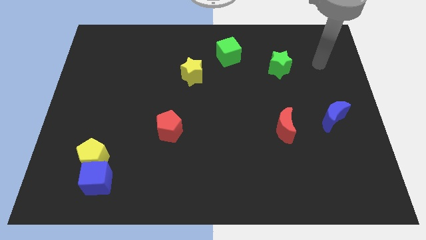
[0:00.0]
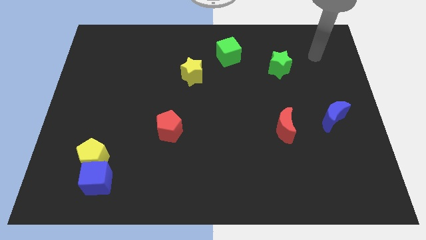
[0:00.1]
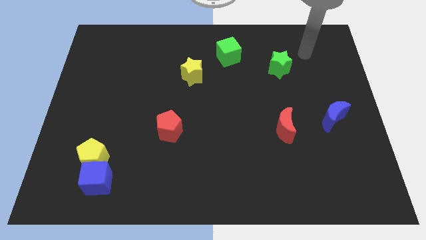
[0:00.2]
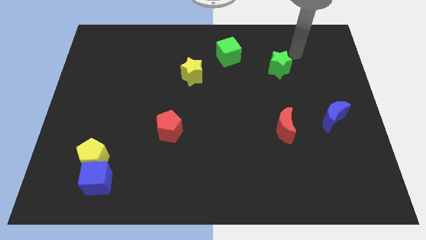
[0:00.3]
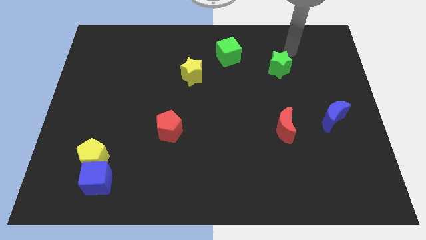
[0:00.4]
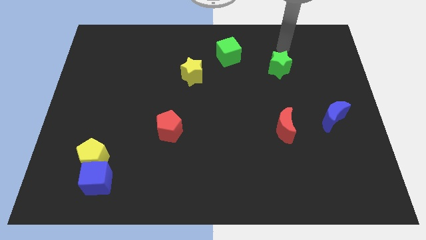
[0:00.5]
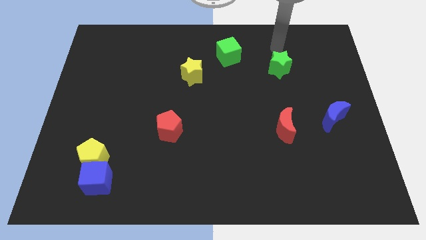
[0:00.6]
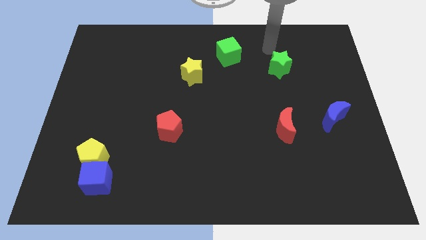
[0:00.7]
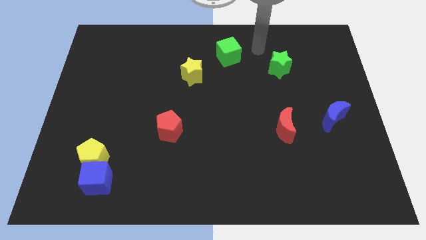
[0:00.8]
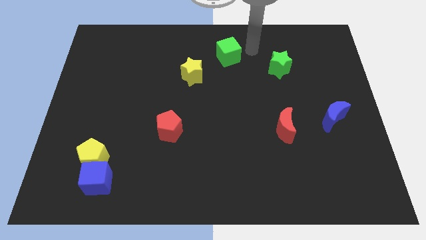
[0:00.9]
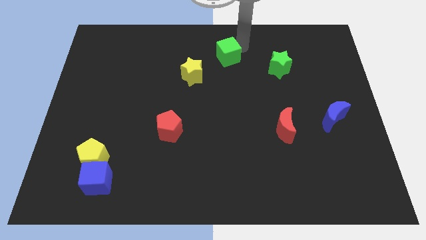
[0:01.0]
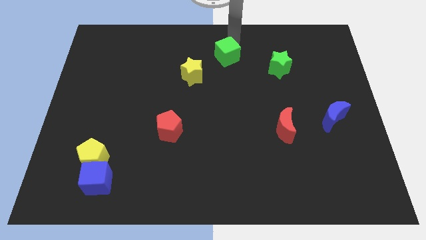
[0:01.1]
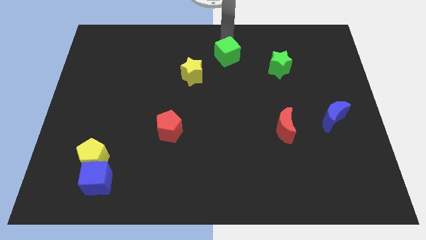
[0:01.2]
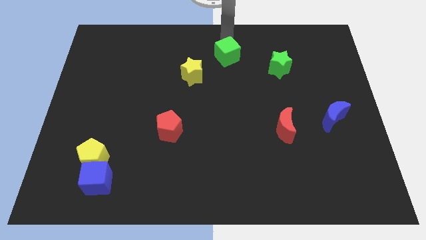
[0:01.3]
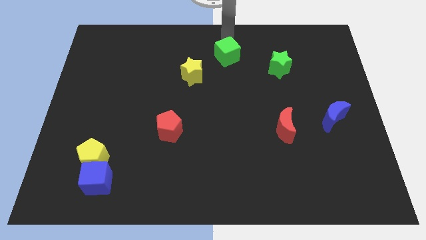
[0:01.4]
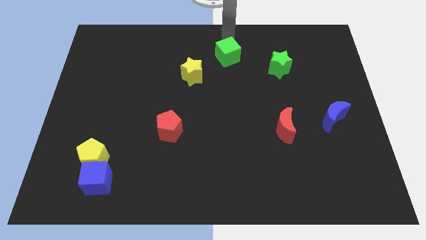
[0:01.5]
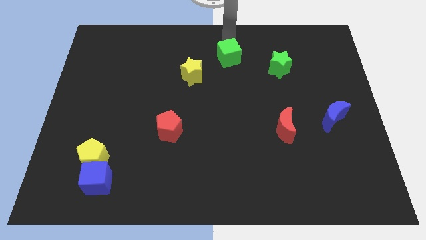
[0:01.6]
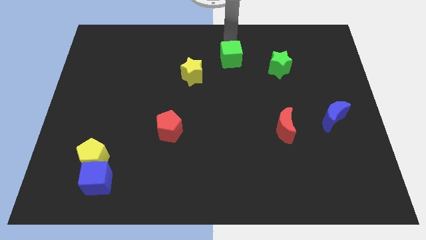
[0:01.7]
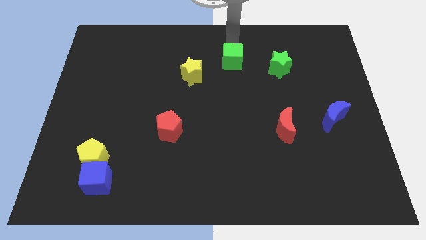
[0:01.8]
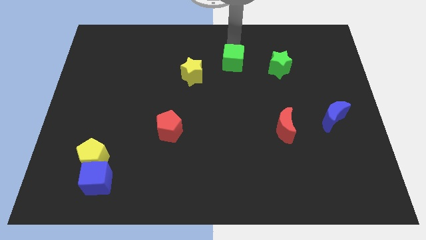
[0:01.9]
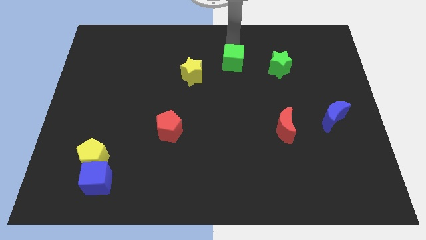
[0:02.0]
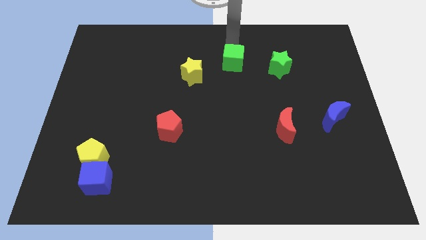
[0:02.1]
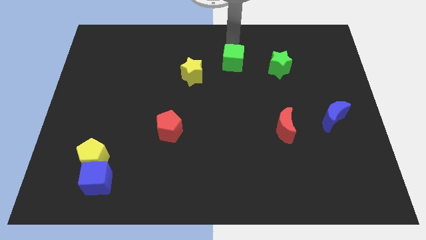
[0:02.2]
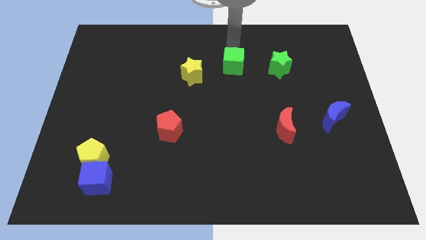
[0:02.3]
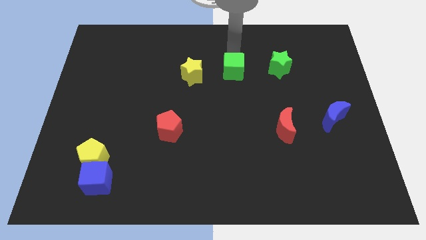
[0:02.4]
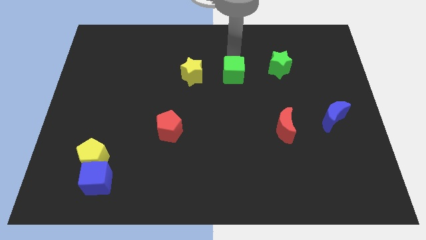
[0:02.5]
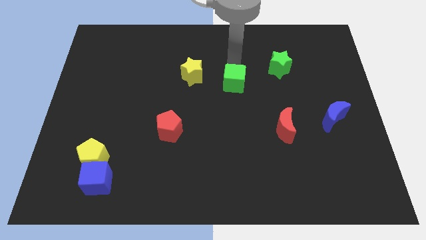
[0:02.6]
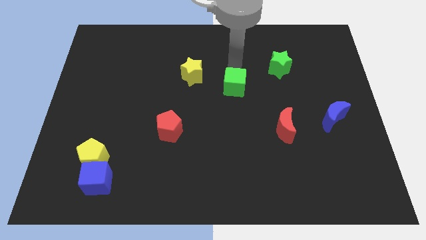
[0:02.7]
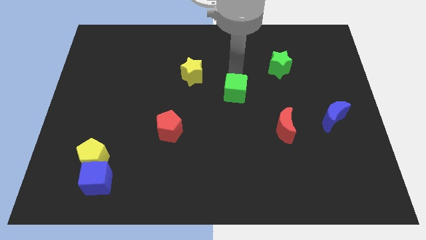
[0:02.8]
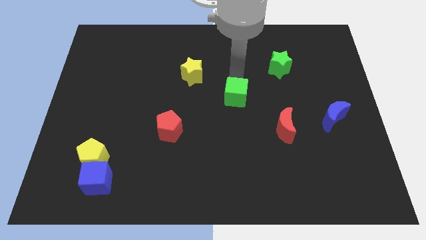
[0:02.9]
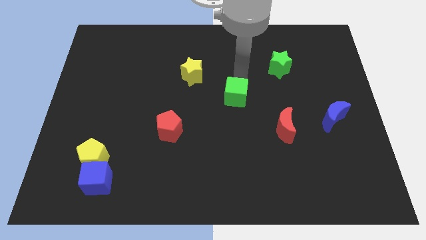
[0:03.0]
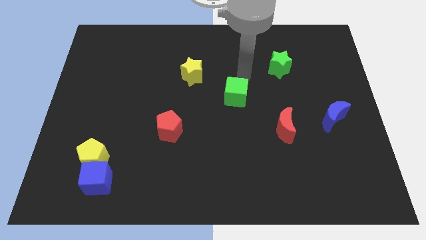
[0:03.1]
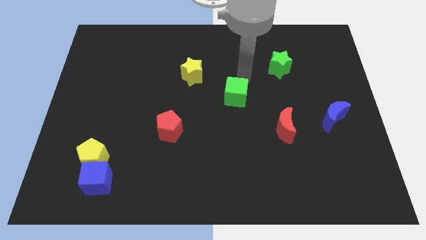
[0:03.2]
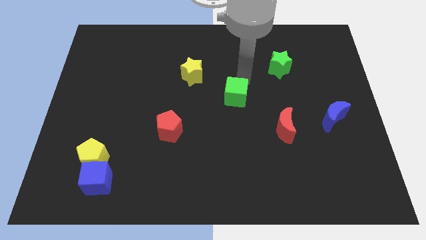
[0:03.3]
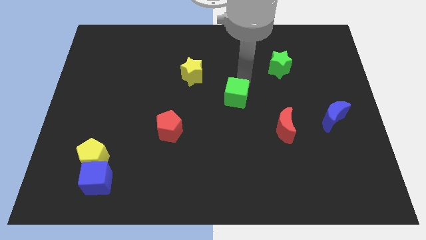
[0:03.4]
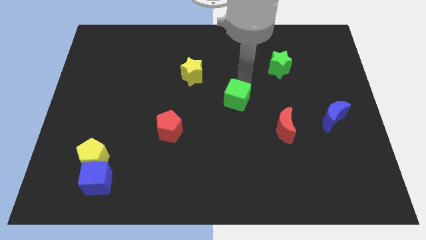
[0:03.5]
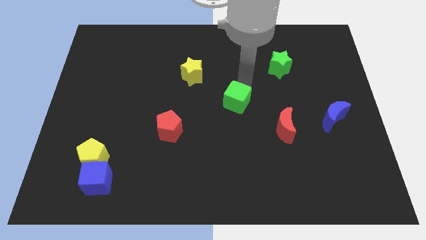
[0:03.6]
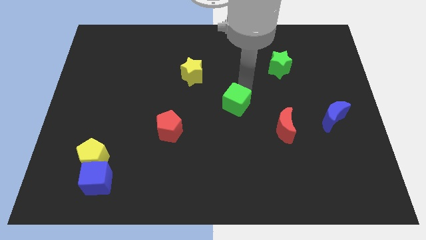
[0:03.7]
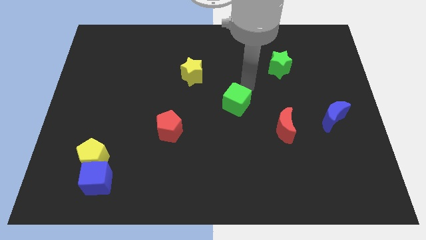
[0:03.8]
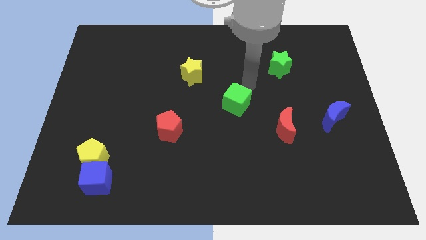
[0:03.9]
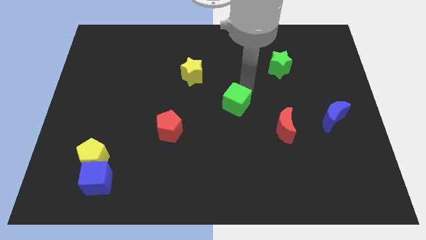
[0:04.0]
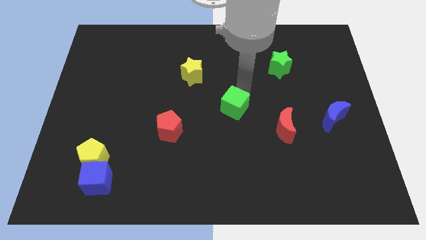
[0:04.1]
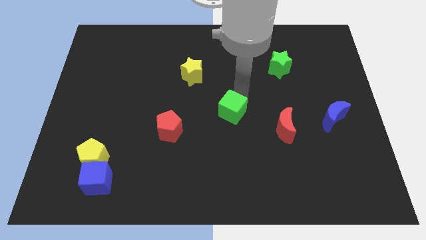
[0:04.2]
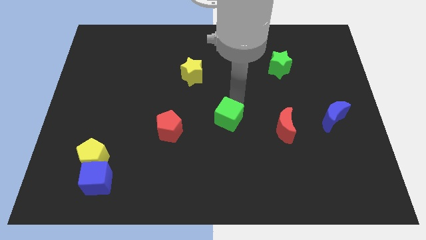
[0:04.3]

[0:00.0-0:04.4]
move the green cube downwards

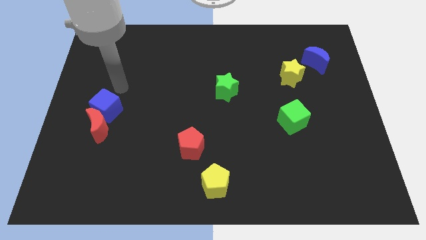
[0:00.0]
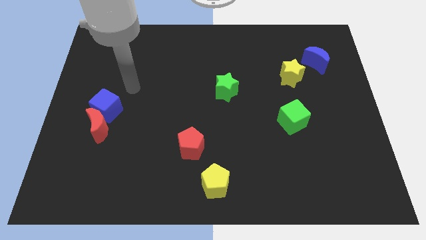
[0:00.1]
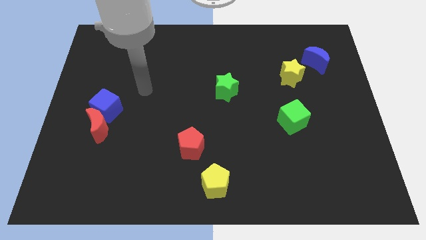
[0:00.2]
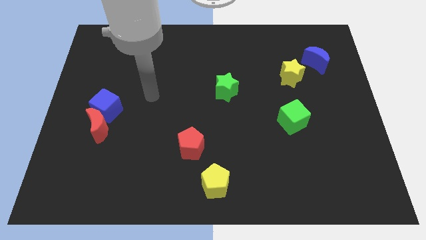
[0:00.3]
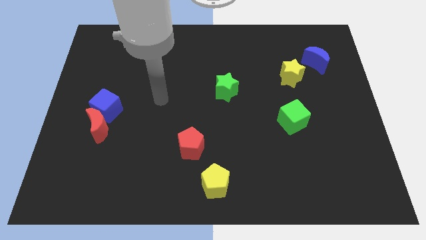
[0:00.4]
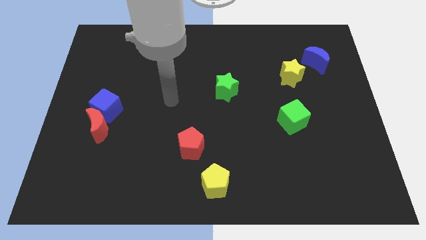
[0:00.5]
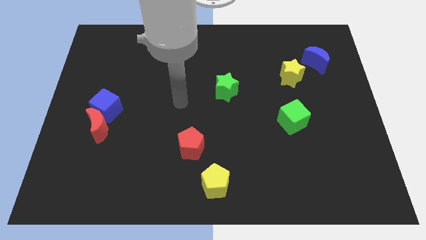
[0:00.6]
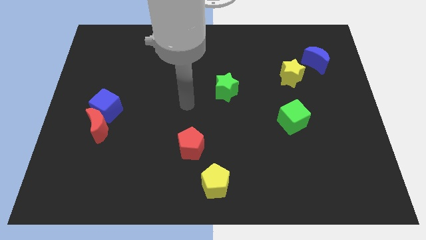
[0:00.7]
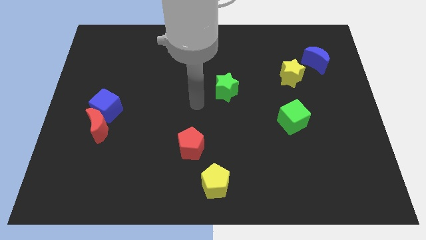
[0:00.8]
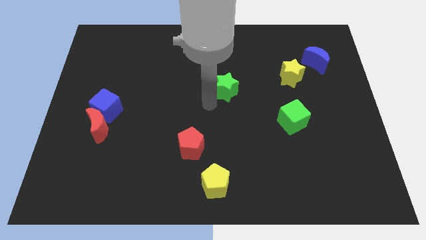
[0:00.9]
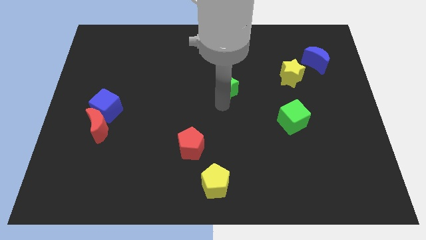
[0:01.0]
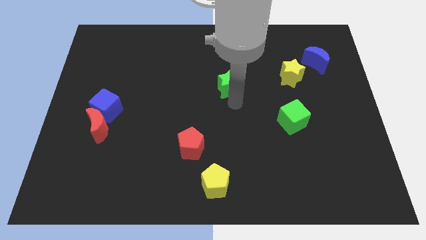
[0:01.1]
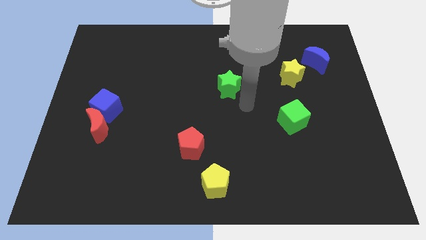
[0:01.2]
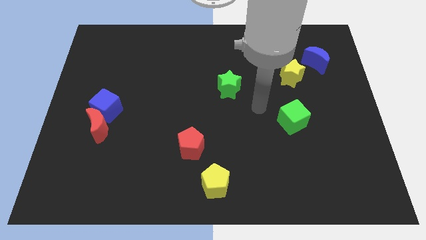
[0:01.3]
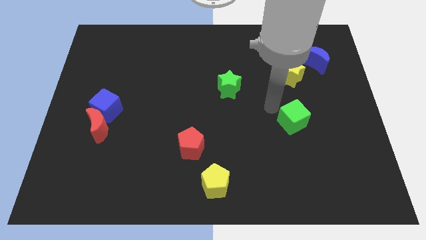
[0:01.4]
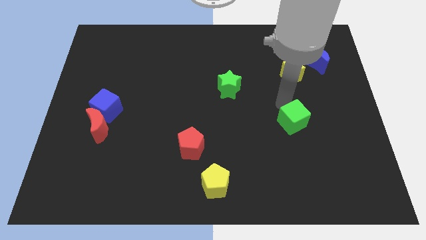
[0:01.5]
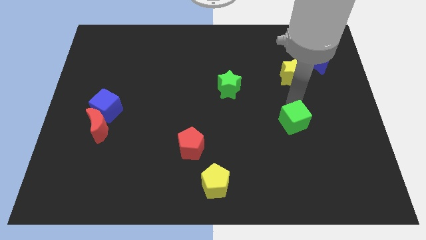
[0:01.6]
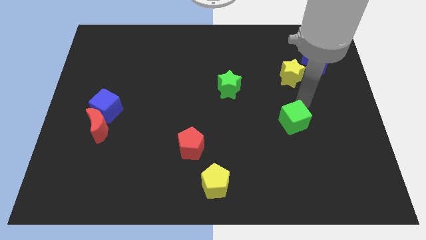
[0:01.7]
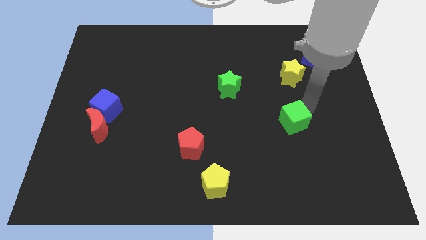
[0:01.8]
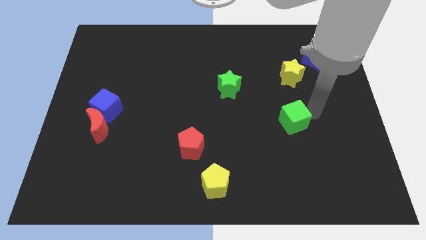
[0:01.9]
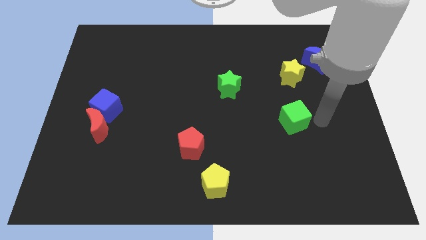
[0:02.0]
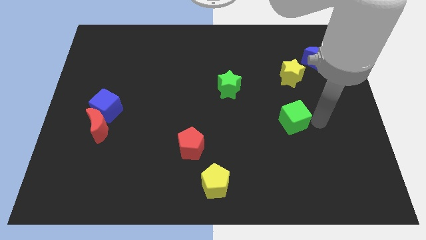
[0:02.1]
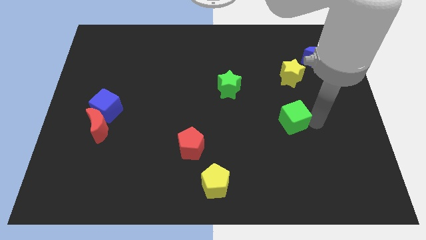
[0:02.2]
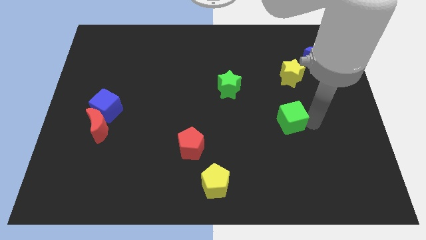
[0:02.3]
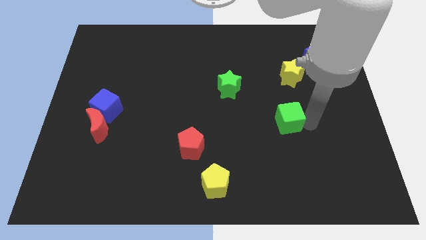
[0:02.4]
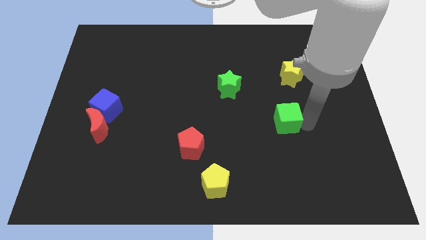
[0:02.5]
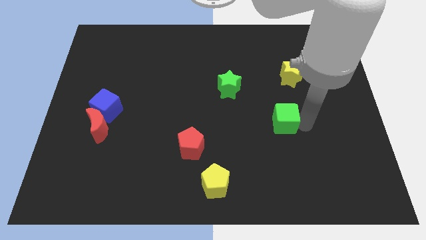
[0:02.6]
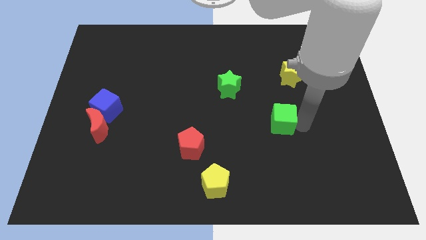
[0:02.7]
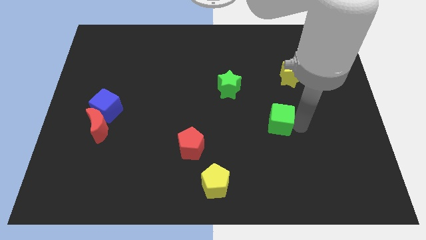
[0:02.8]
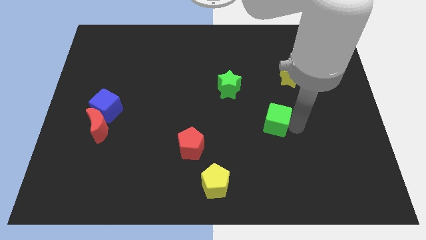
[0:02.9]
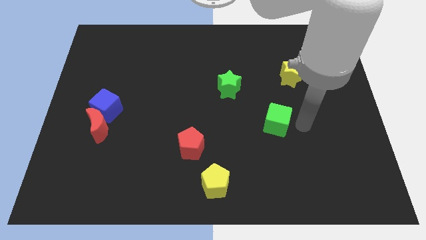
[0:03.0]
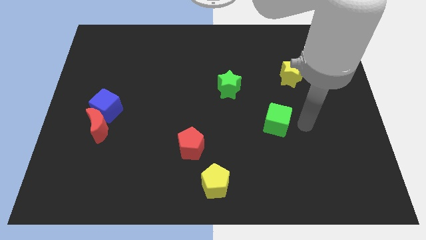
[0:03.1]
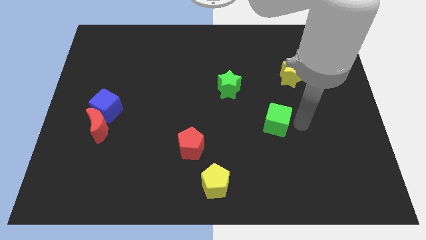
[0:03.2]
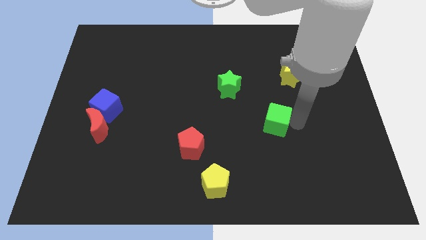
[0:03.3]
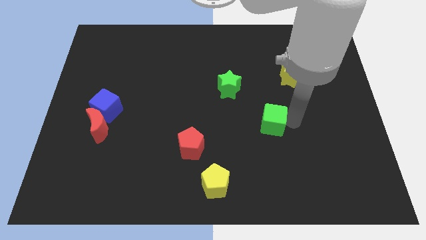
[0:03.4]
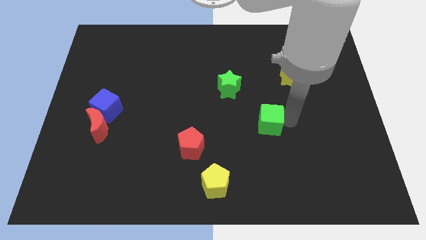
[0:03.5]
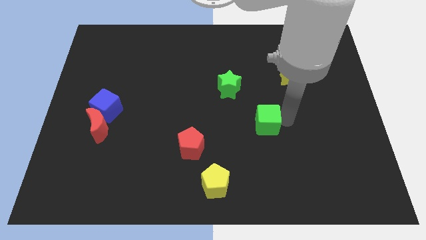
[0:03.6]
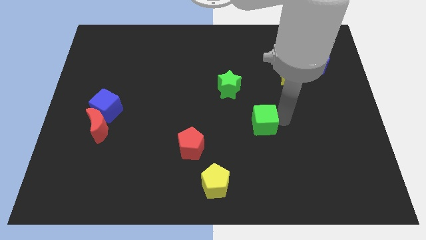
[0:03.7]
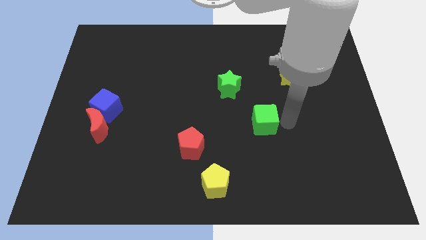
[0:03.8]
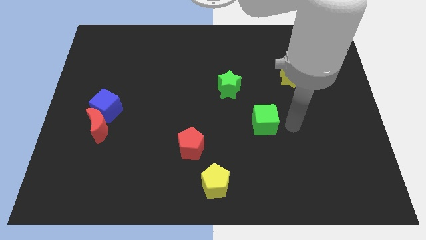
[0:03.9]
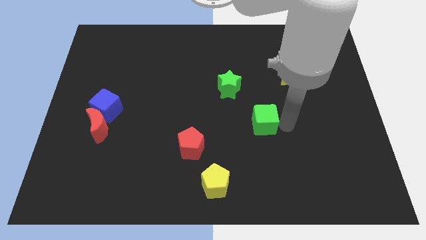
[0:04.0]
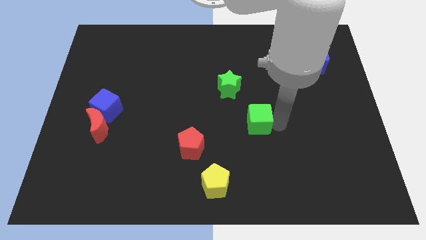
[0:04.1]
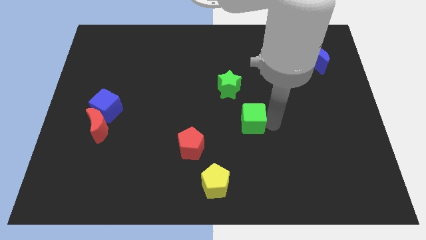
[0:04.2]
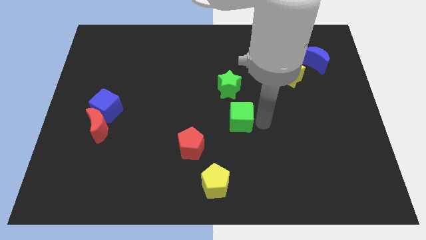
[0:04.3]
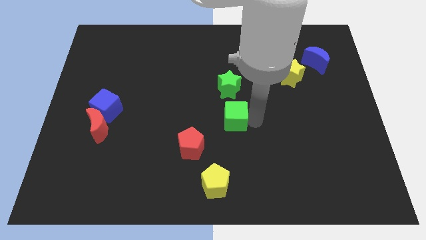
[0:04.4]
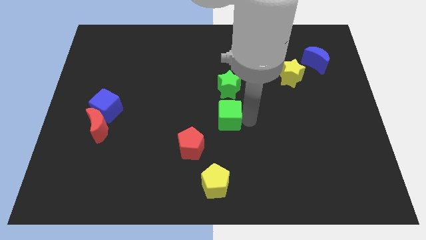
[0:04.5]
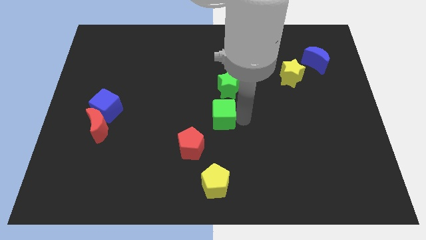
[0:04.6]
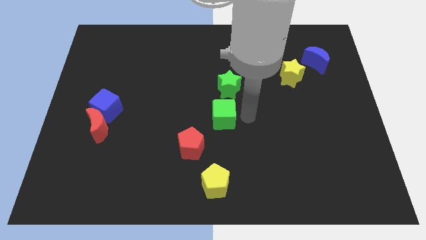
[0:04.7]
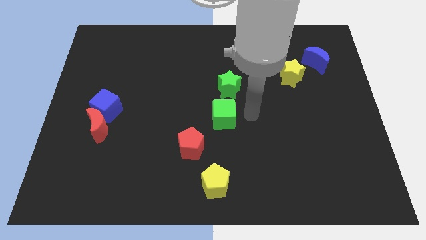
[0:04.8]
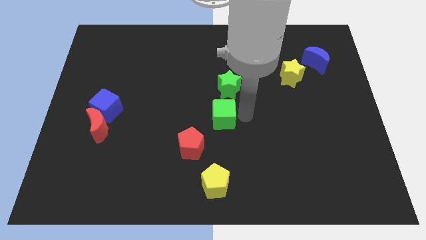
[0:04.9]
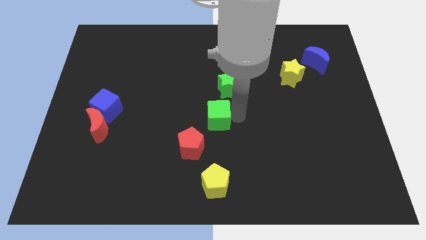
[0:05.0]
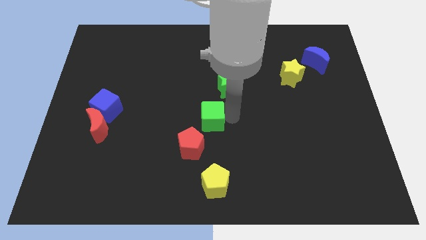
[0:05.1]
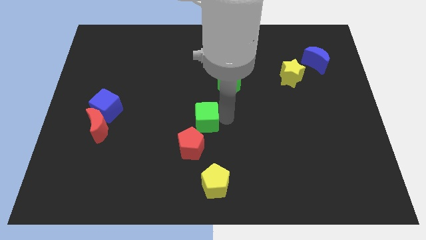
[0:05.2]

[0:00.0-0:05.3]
push the green cube to the left
